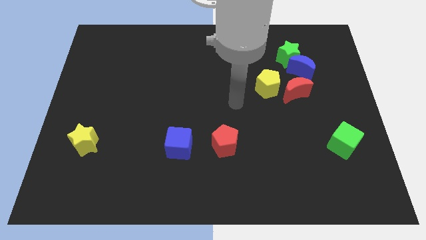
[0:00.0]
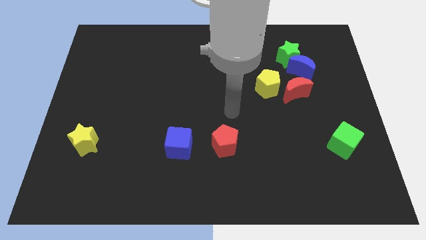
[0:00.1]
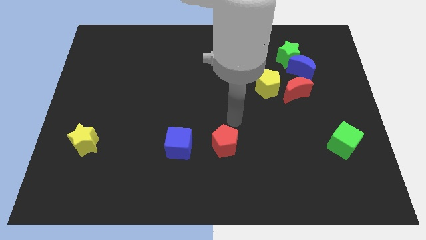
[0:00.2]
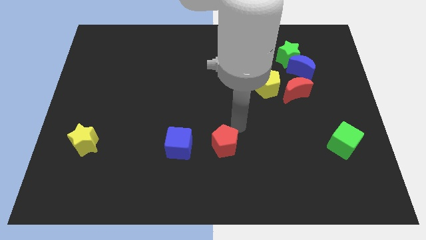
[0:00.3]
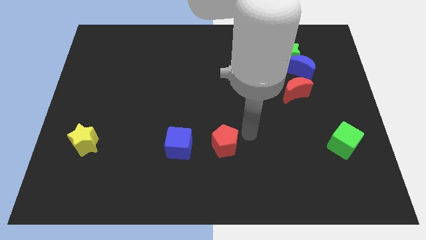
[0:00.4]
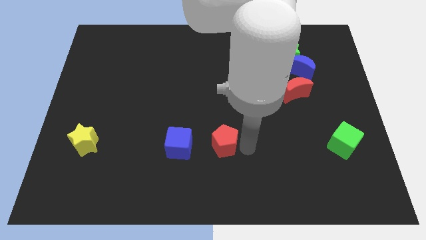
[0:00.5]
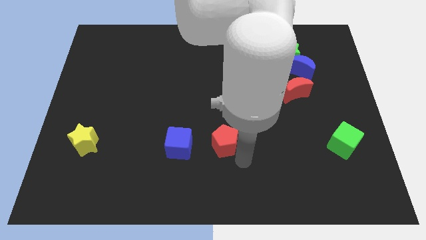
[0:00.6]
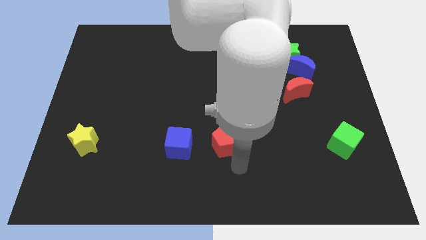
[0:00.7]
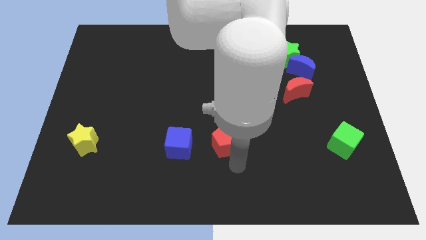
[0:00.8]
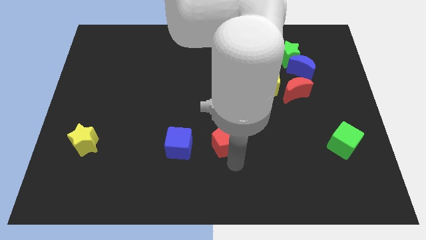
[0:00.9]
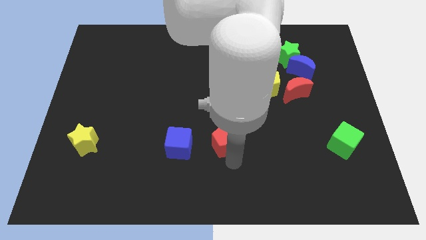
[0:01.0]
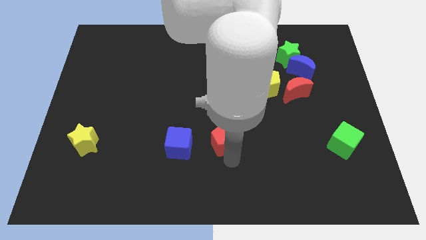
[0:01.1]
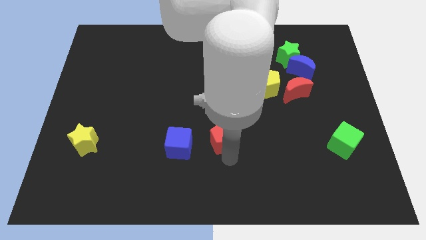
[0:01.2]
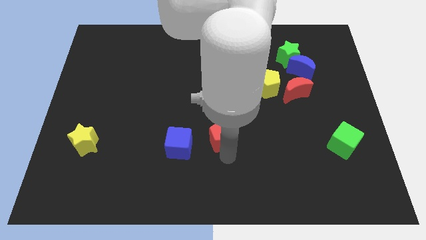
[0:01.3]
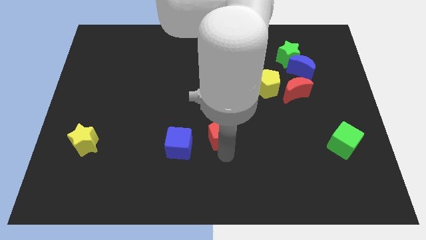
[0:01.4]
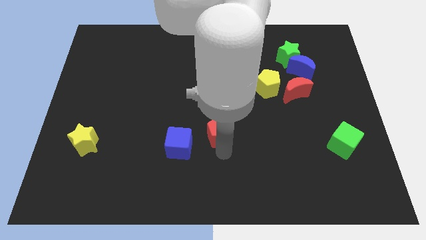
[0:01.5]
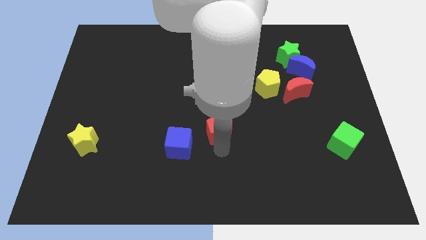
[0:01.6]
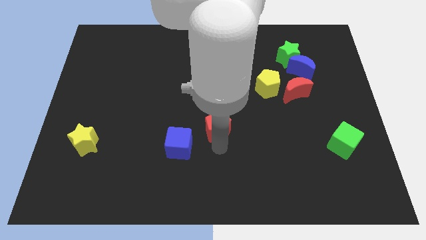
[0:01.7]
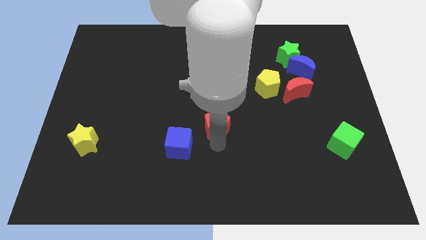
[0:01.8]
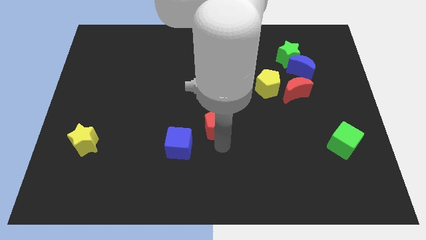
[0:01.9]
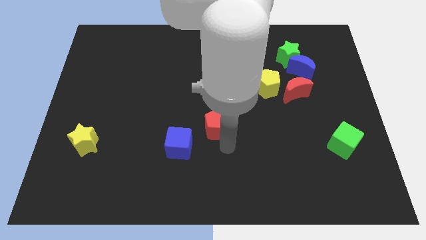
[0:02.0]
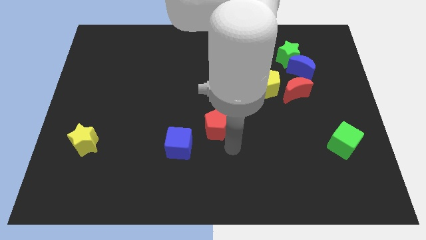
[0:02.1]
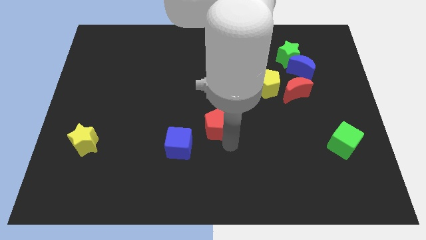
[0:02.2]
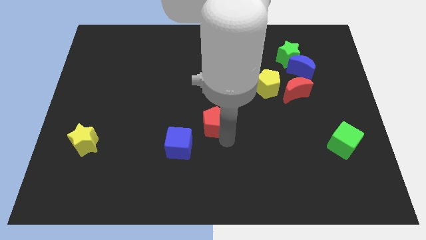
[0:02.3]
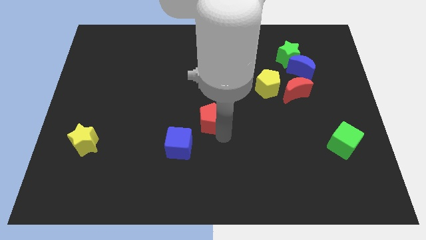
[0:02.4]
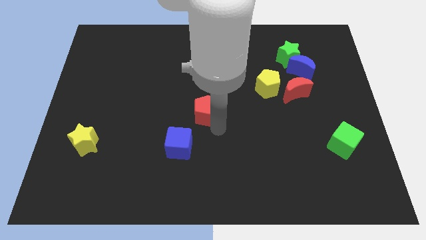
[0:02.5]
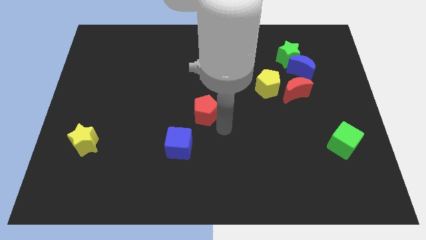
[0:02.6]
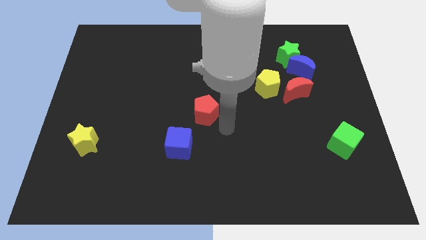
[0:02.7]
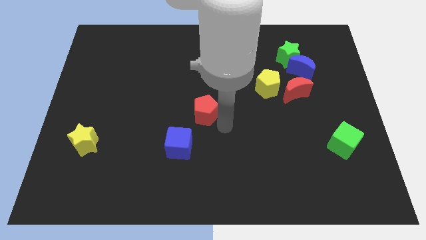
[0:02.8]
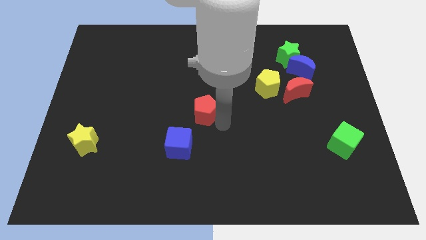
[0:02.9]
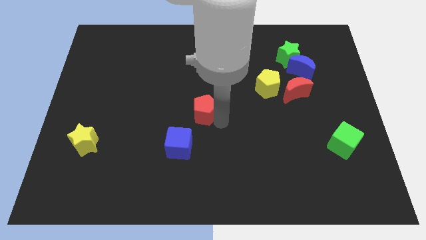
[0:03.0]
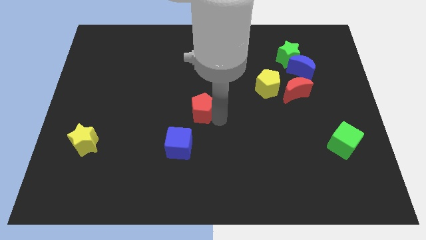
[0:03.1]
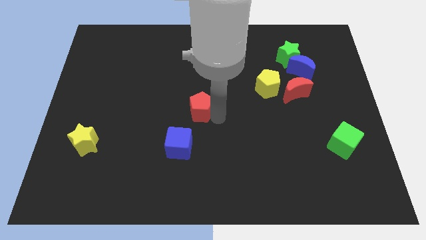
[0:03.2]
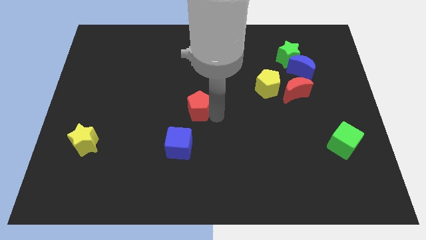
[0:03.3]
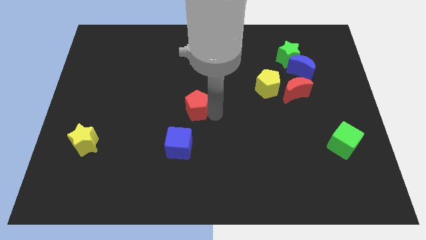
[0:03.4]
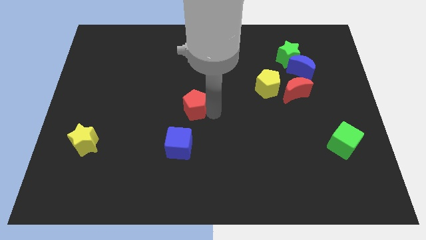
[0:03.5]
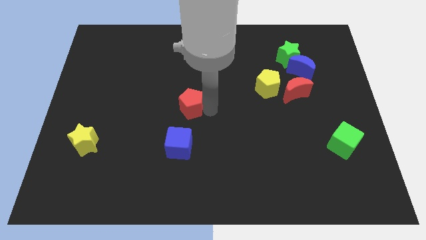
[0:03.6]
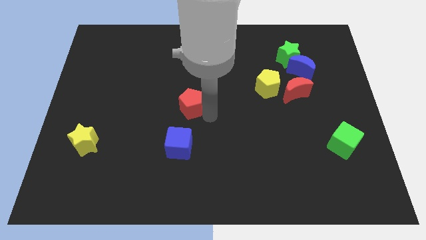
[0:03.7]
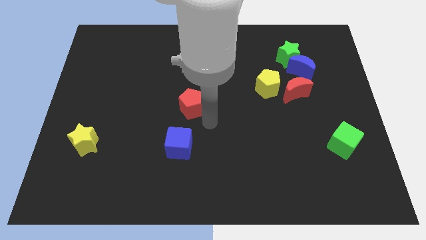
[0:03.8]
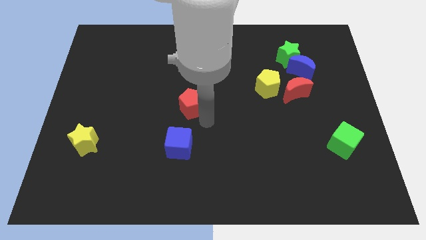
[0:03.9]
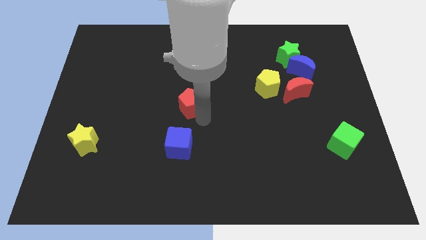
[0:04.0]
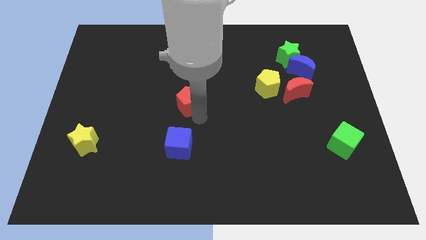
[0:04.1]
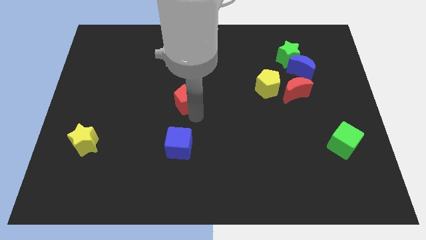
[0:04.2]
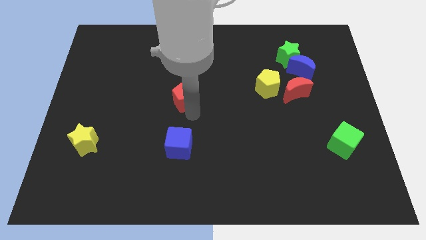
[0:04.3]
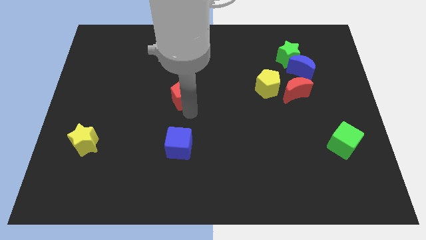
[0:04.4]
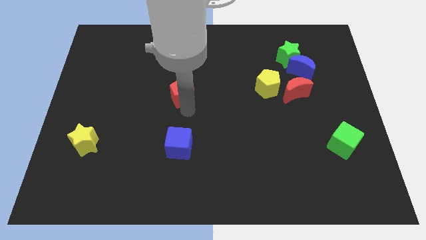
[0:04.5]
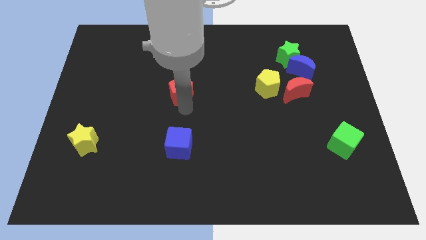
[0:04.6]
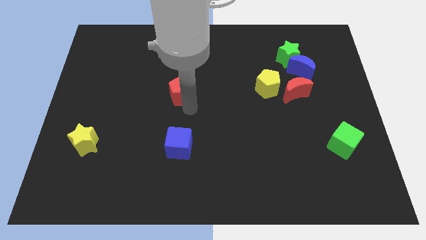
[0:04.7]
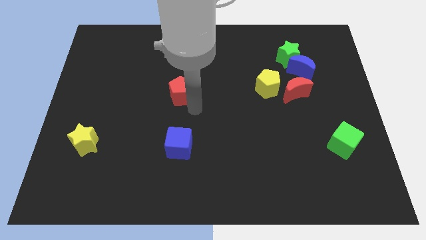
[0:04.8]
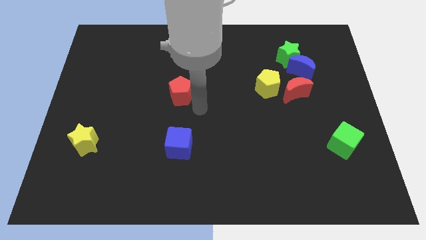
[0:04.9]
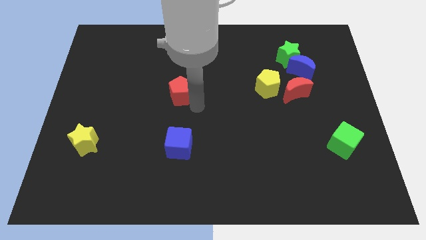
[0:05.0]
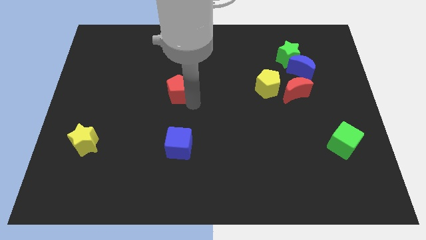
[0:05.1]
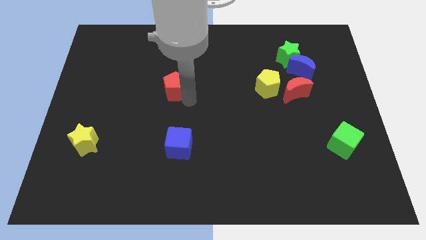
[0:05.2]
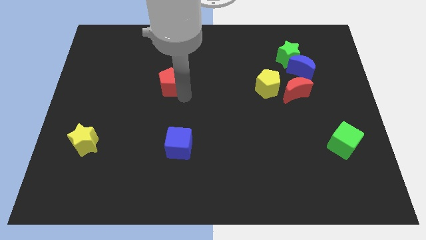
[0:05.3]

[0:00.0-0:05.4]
slide the red pentagon diagonally up and to the left

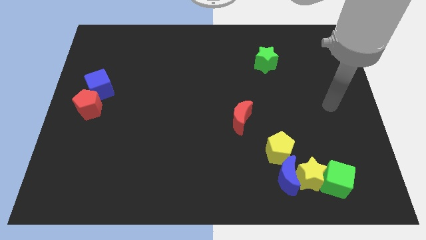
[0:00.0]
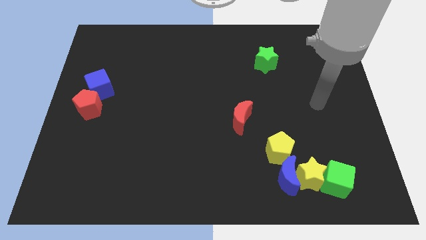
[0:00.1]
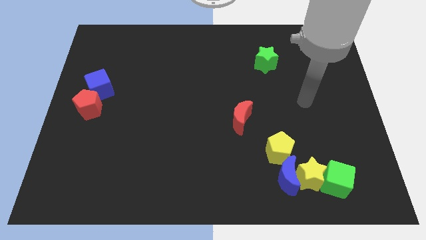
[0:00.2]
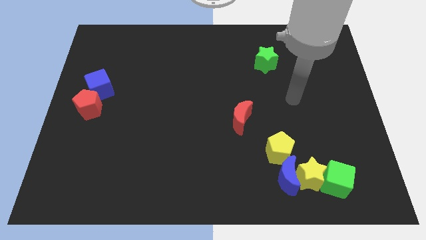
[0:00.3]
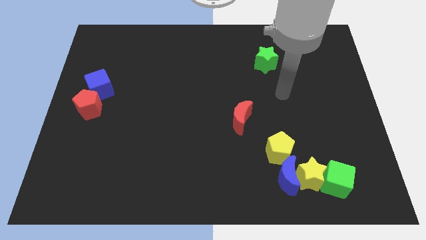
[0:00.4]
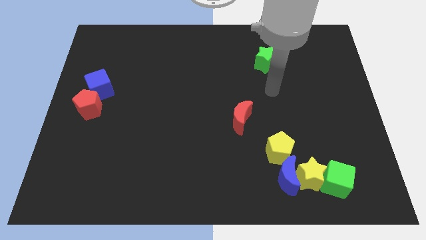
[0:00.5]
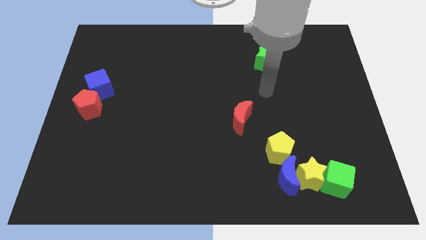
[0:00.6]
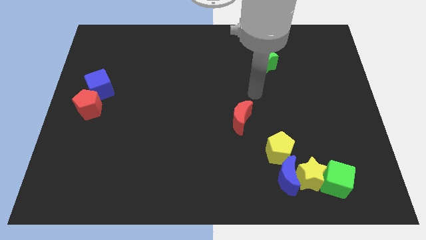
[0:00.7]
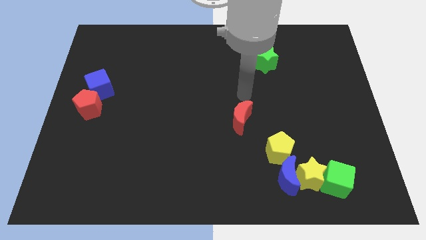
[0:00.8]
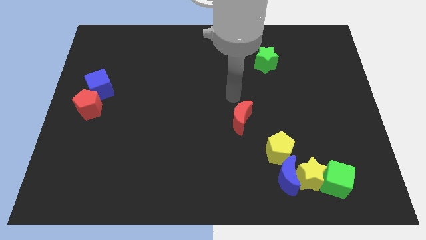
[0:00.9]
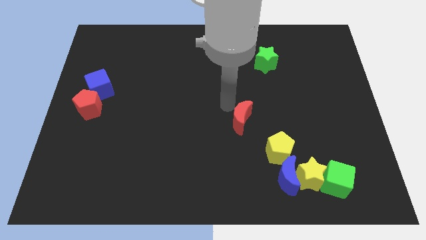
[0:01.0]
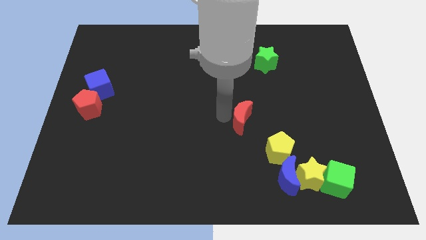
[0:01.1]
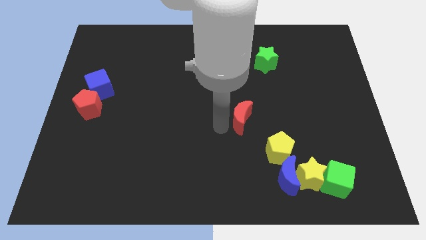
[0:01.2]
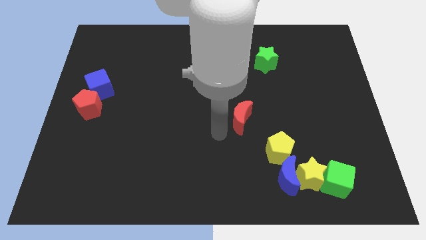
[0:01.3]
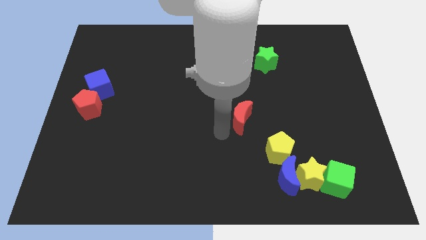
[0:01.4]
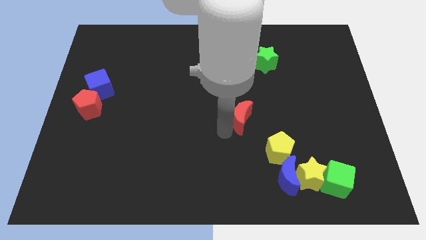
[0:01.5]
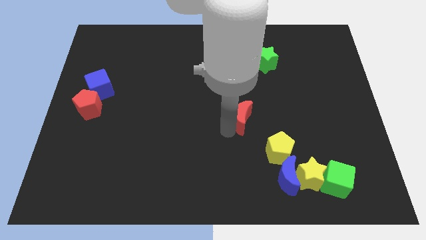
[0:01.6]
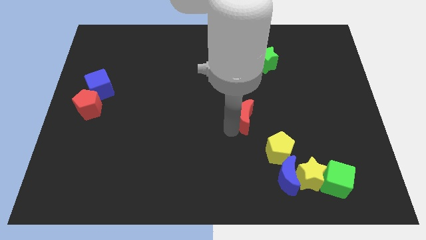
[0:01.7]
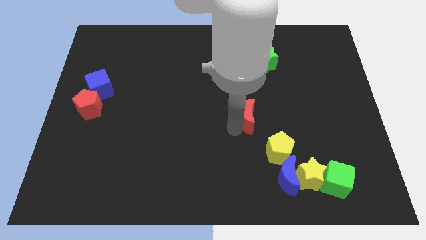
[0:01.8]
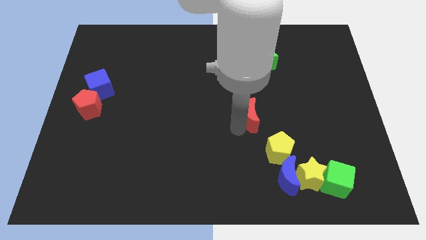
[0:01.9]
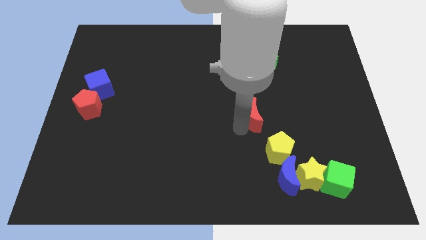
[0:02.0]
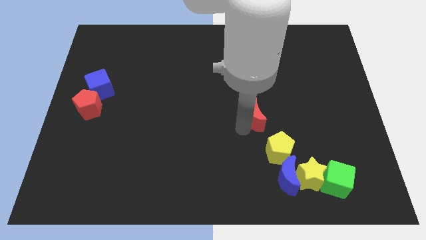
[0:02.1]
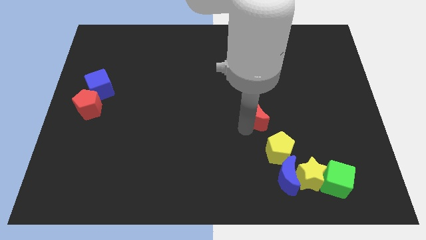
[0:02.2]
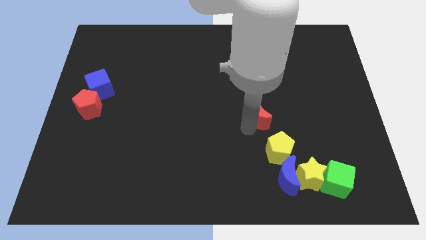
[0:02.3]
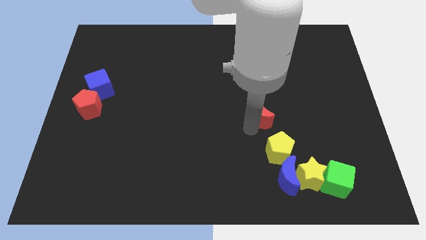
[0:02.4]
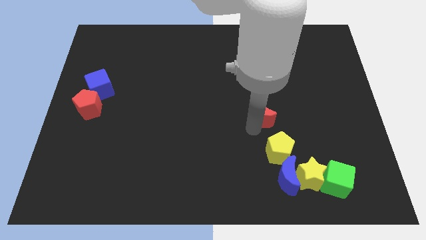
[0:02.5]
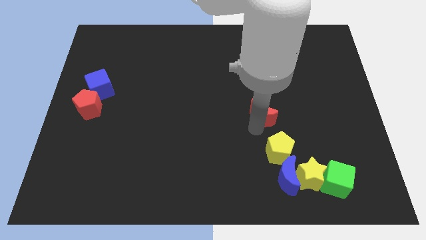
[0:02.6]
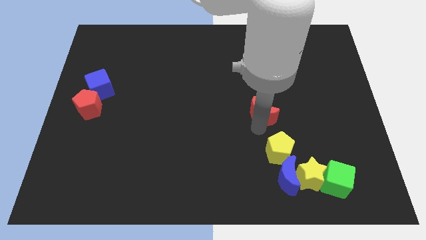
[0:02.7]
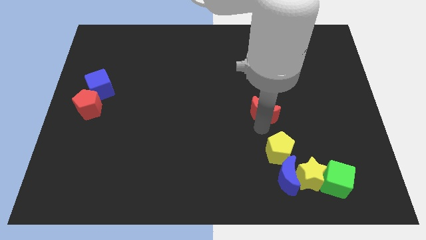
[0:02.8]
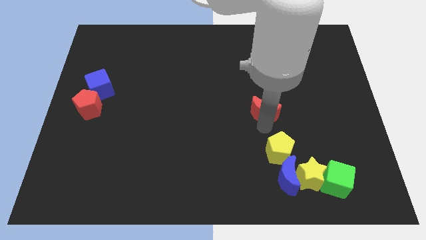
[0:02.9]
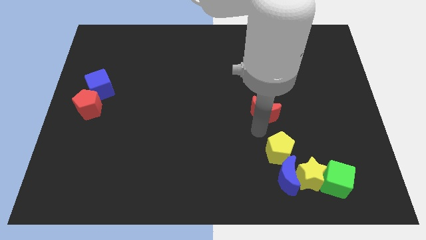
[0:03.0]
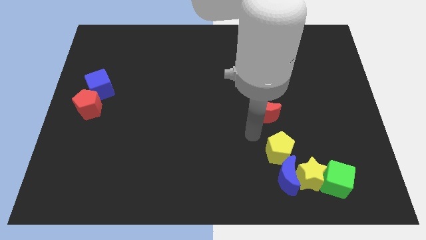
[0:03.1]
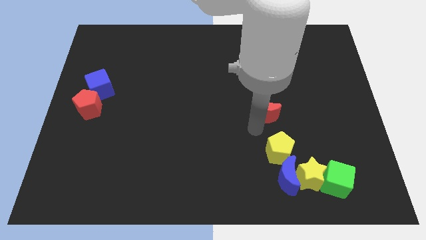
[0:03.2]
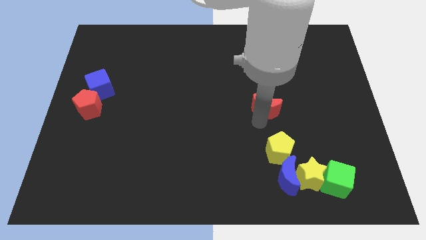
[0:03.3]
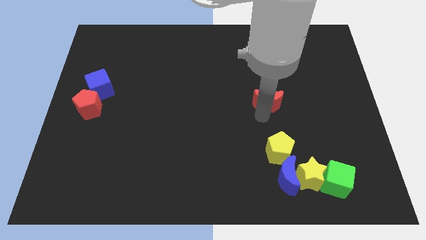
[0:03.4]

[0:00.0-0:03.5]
slide the red moon up and then to the right a little
